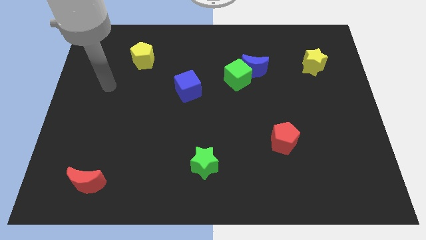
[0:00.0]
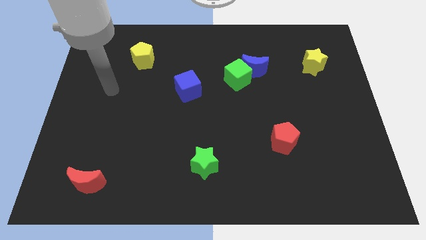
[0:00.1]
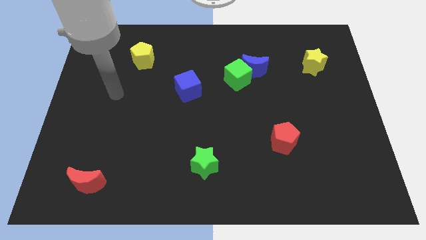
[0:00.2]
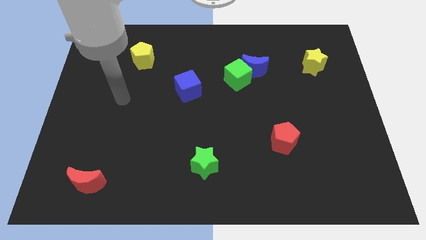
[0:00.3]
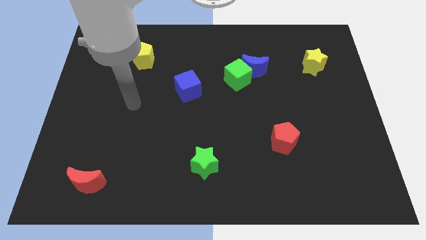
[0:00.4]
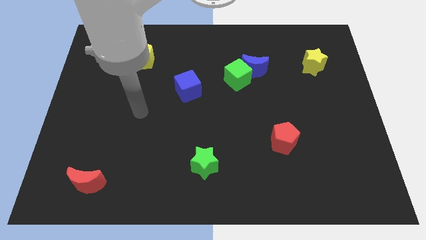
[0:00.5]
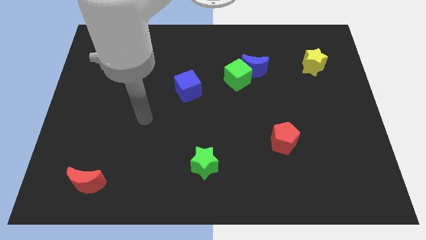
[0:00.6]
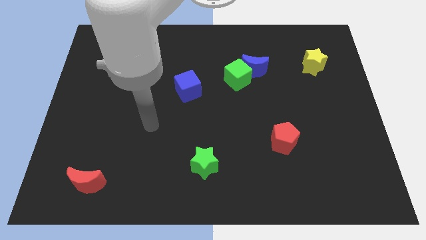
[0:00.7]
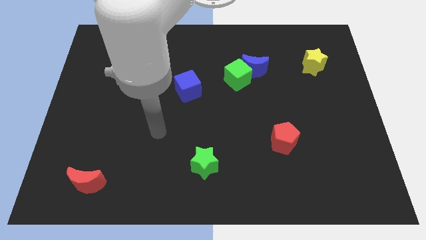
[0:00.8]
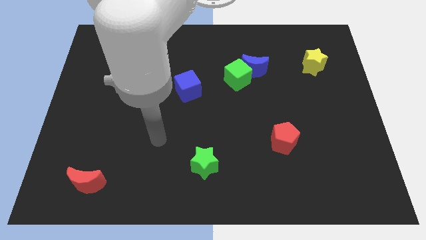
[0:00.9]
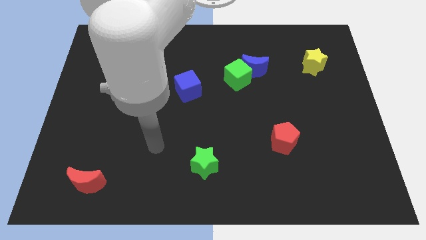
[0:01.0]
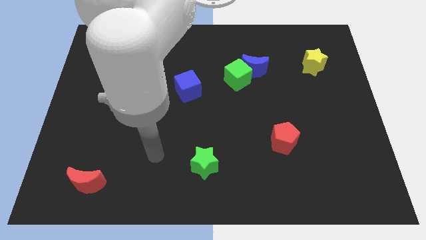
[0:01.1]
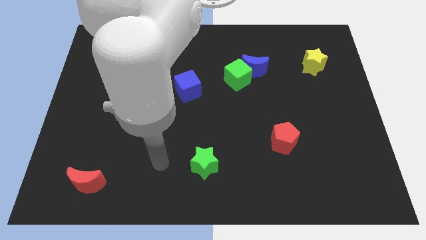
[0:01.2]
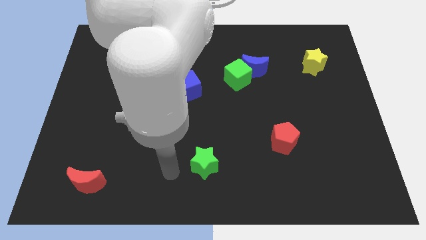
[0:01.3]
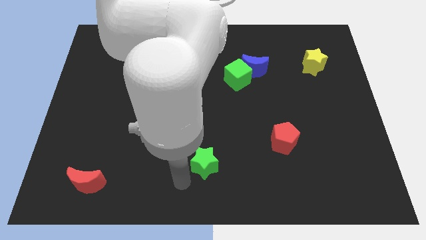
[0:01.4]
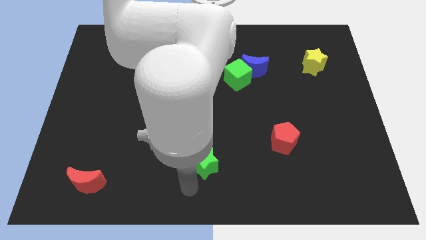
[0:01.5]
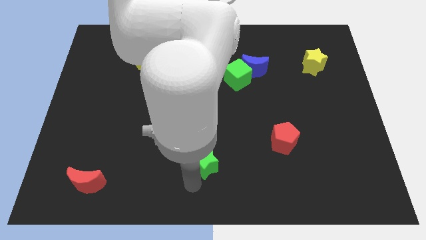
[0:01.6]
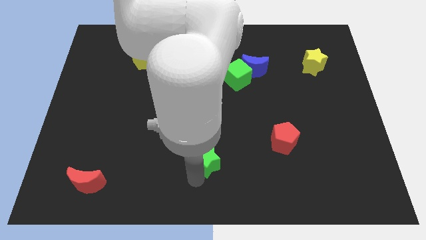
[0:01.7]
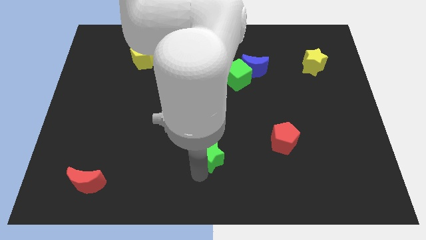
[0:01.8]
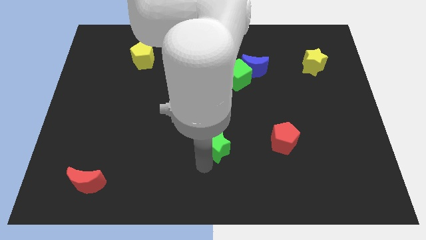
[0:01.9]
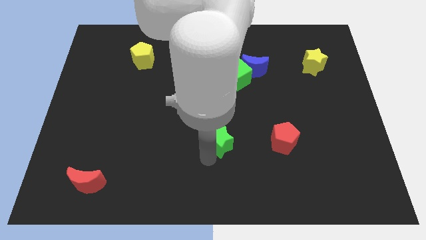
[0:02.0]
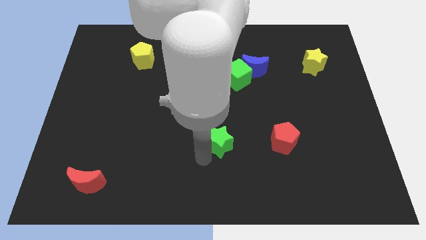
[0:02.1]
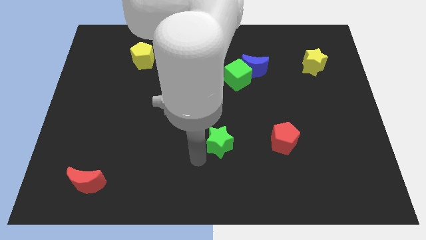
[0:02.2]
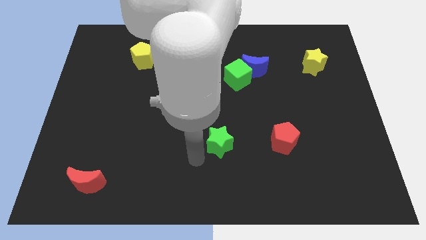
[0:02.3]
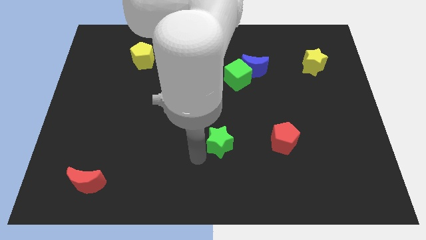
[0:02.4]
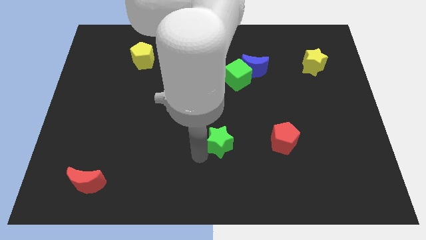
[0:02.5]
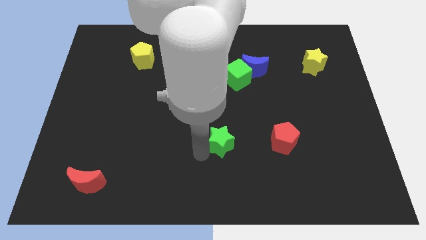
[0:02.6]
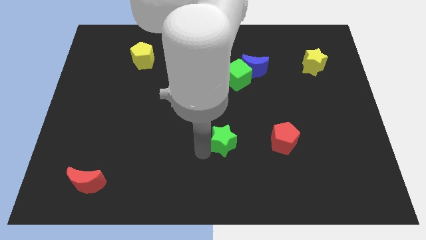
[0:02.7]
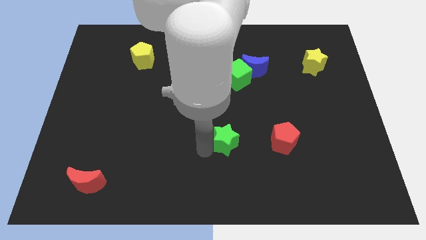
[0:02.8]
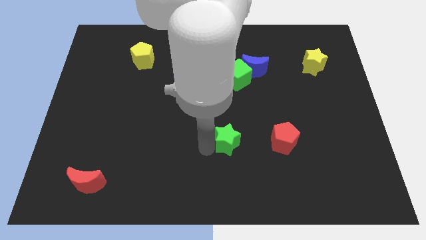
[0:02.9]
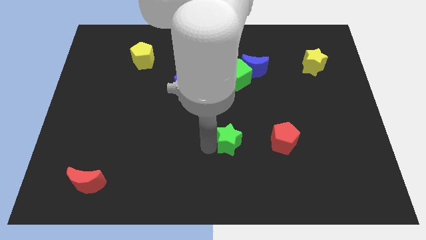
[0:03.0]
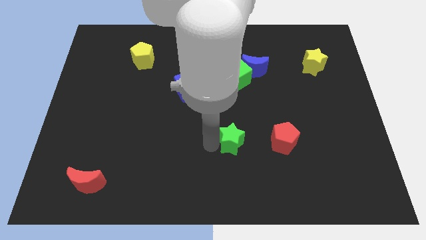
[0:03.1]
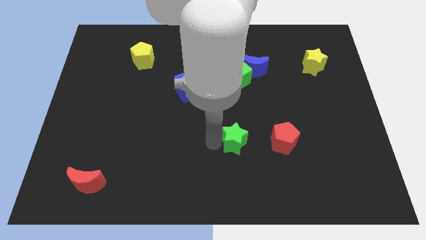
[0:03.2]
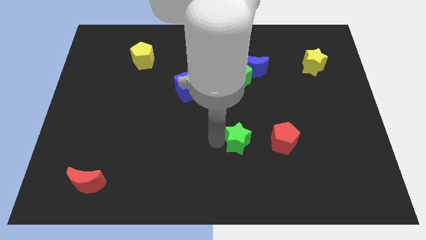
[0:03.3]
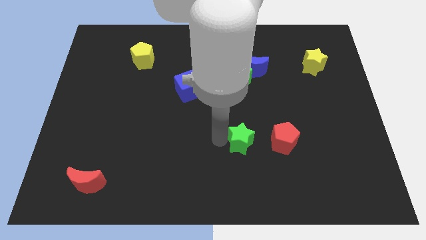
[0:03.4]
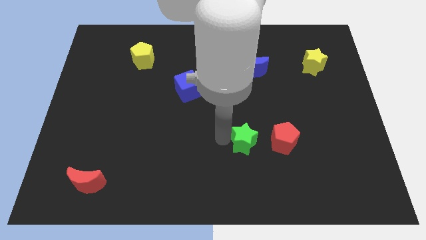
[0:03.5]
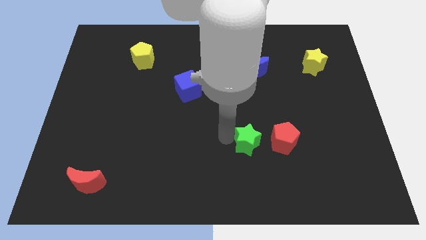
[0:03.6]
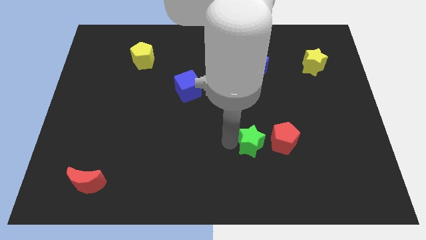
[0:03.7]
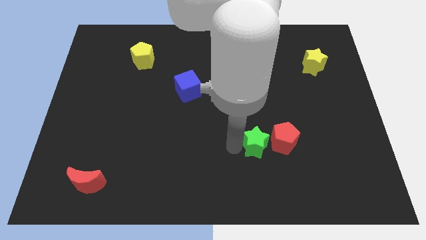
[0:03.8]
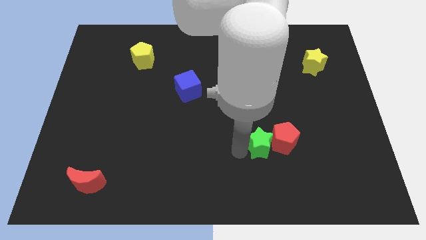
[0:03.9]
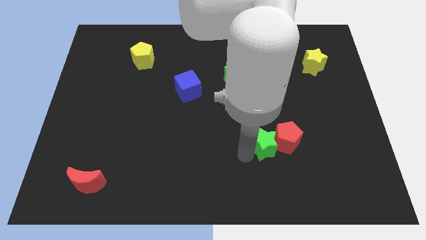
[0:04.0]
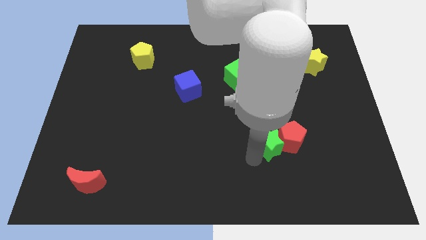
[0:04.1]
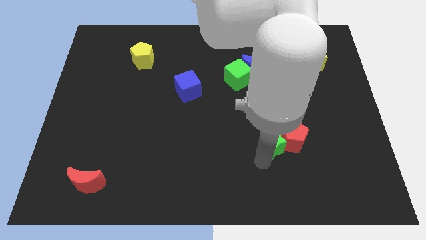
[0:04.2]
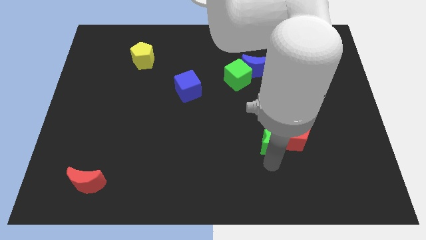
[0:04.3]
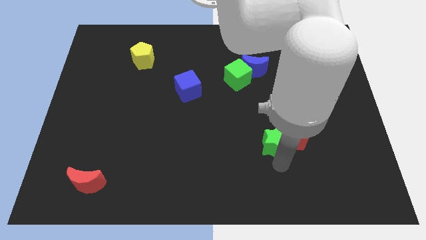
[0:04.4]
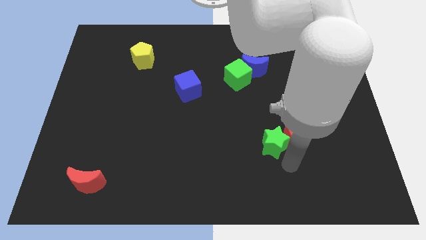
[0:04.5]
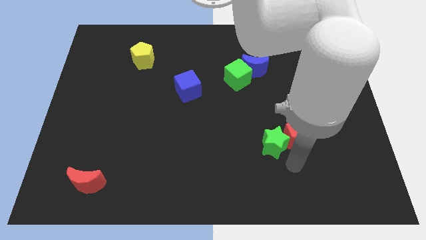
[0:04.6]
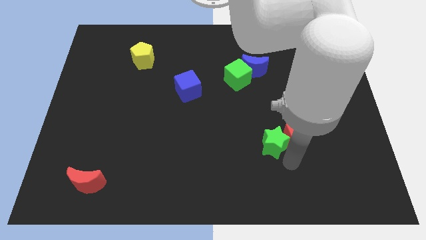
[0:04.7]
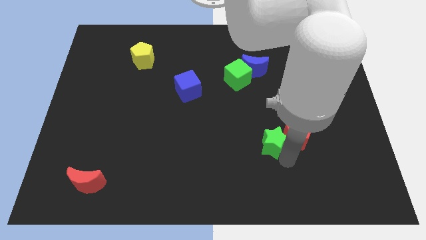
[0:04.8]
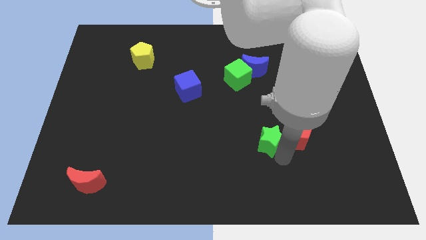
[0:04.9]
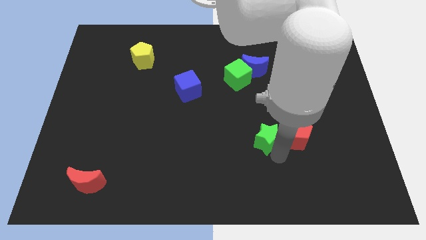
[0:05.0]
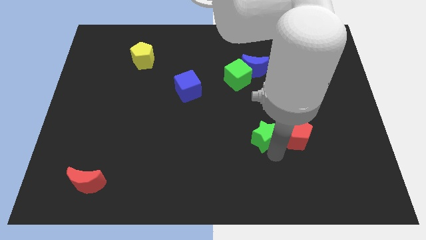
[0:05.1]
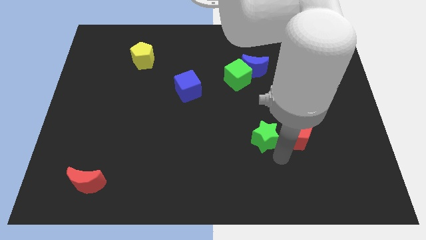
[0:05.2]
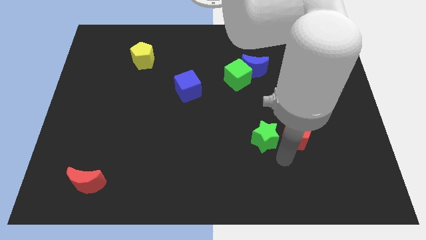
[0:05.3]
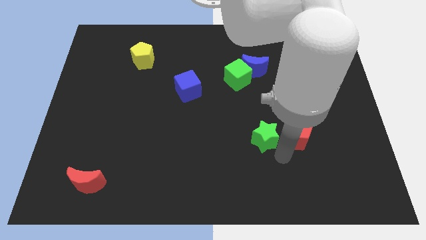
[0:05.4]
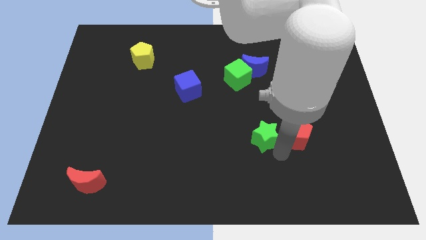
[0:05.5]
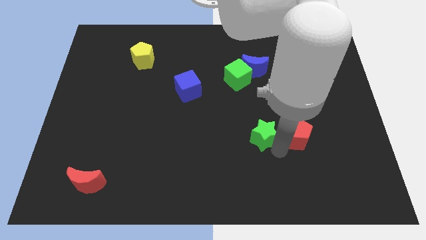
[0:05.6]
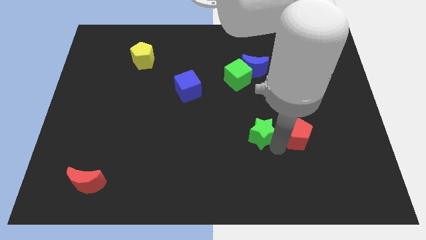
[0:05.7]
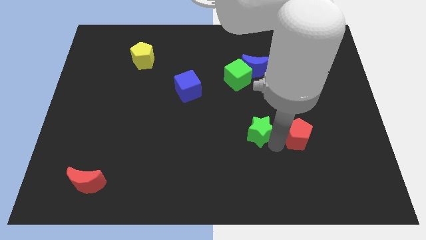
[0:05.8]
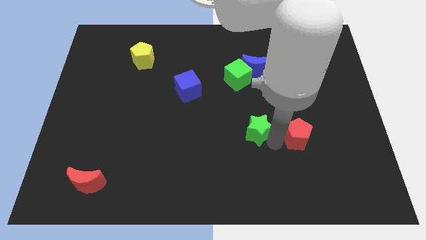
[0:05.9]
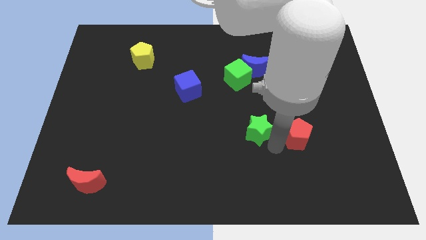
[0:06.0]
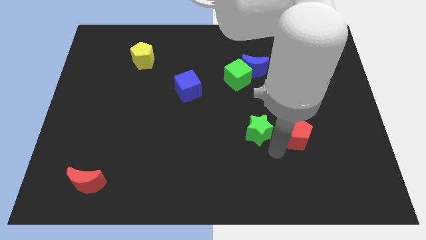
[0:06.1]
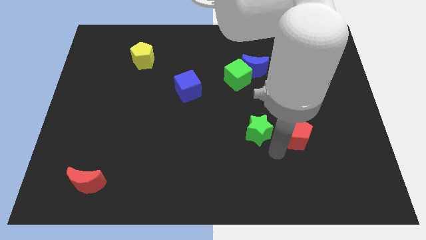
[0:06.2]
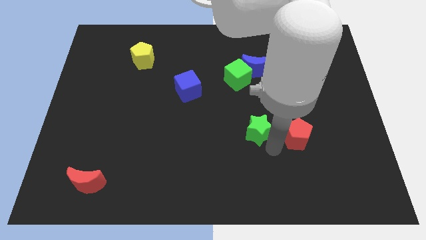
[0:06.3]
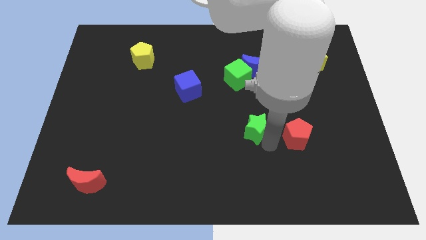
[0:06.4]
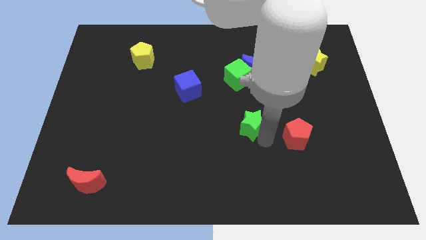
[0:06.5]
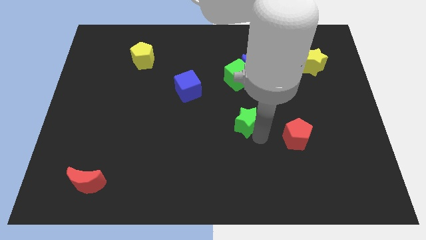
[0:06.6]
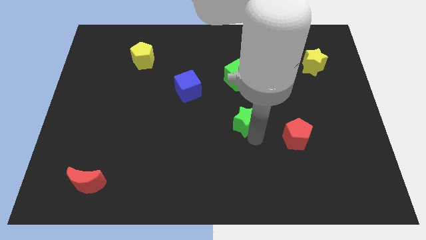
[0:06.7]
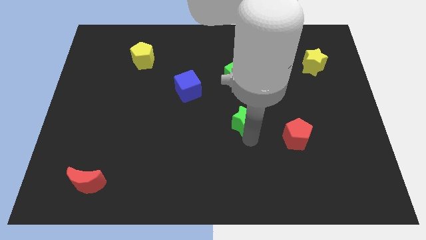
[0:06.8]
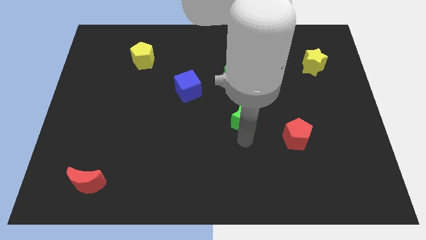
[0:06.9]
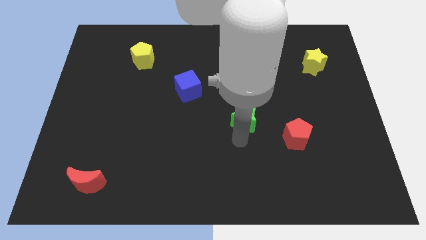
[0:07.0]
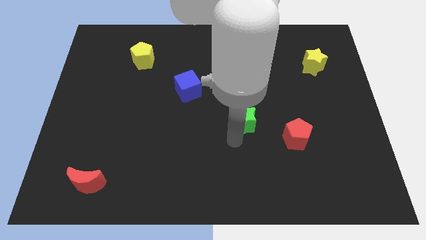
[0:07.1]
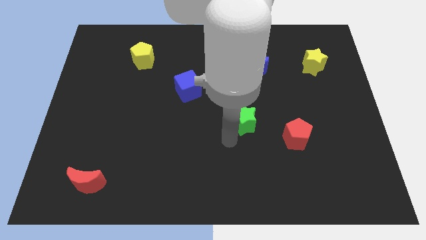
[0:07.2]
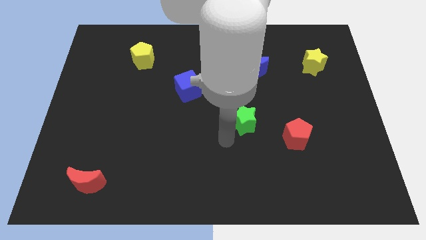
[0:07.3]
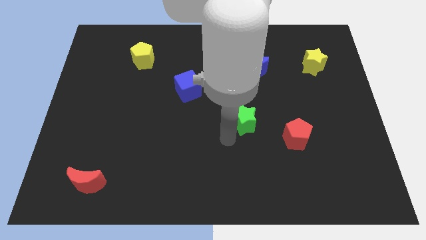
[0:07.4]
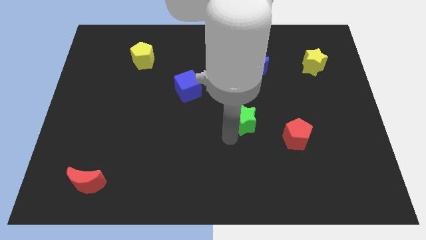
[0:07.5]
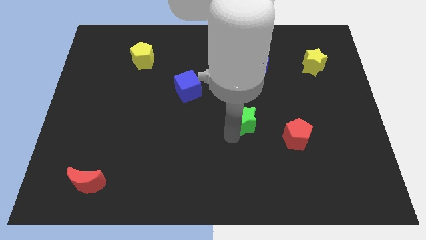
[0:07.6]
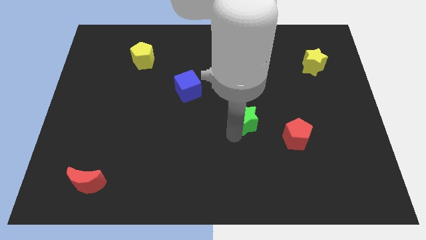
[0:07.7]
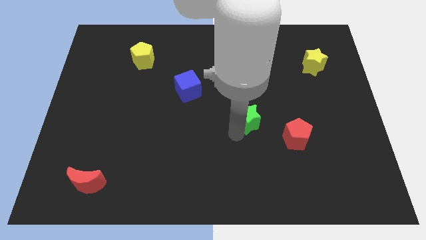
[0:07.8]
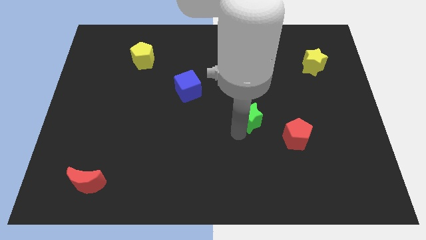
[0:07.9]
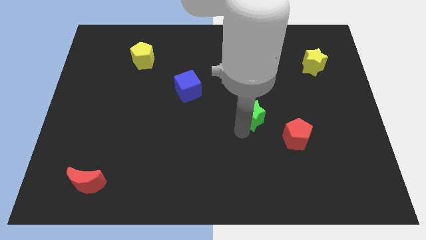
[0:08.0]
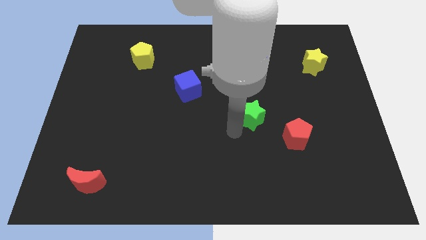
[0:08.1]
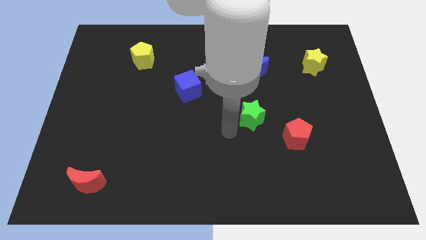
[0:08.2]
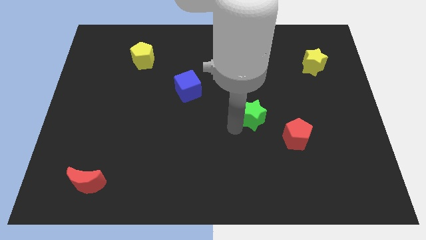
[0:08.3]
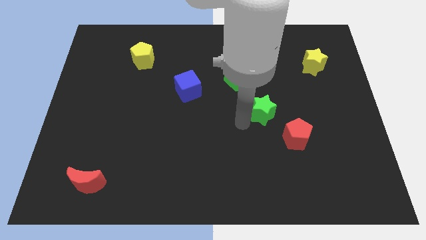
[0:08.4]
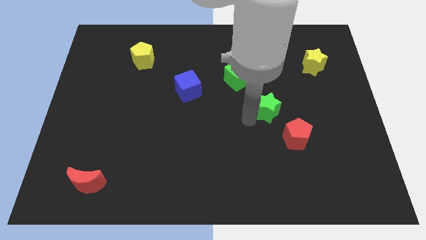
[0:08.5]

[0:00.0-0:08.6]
move the green star upwards and right
